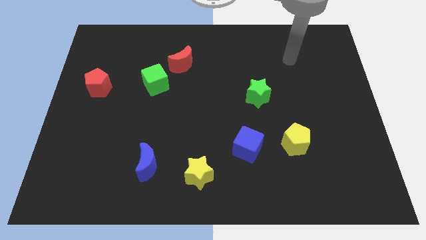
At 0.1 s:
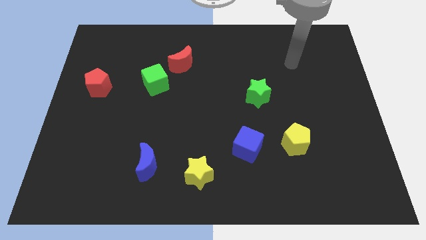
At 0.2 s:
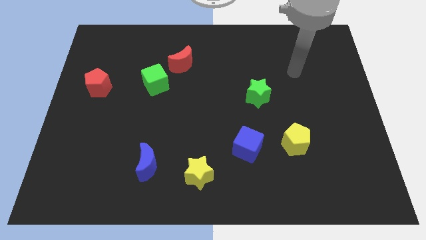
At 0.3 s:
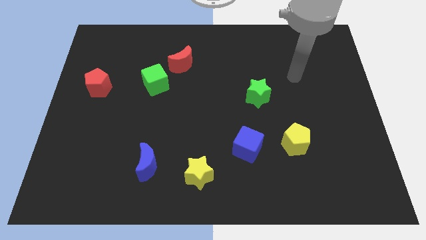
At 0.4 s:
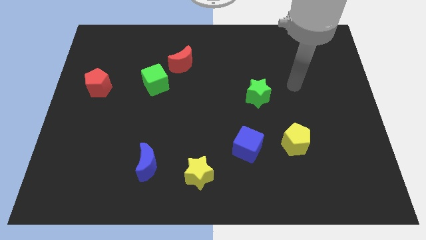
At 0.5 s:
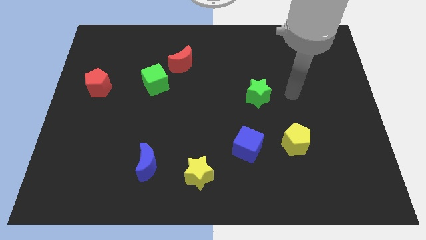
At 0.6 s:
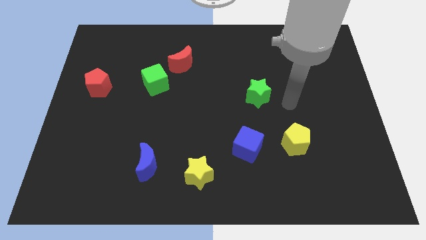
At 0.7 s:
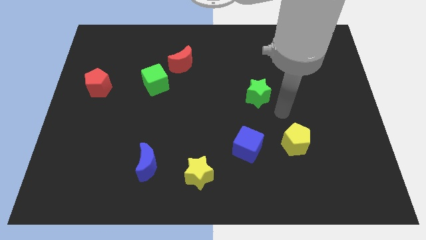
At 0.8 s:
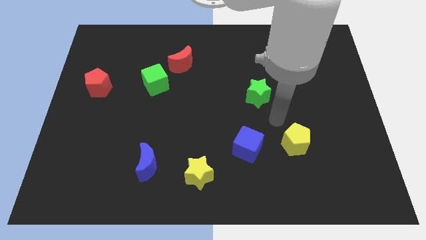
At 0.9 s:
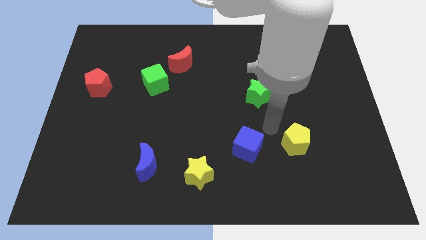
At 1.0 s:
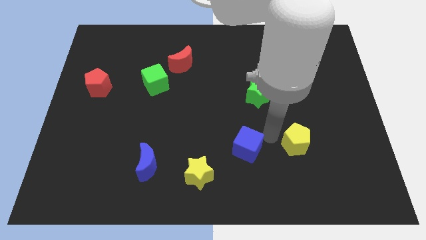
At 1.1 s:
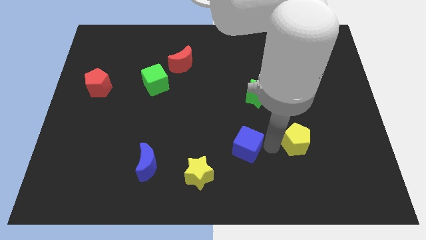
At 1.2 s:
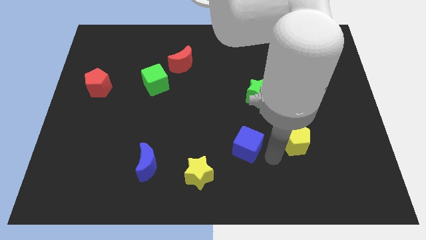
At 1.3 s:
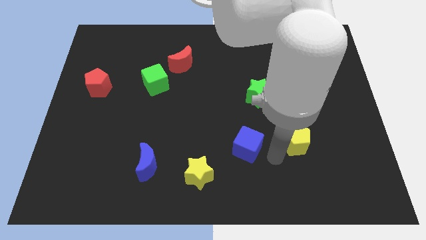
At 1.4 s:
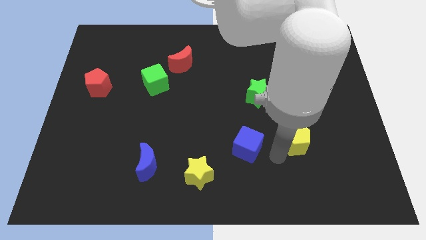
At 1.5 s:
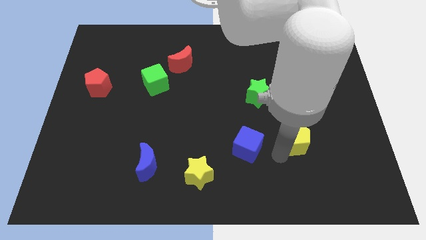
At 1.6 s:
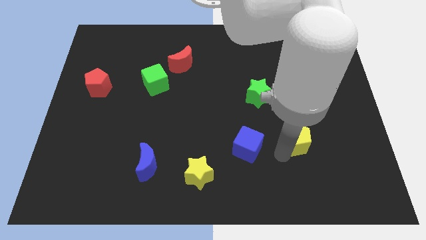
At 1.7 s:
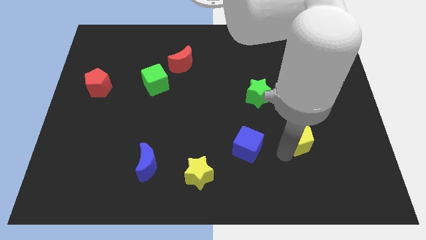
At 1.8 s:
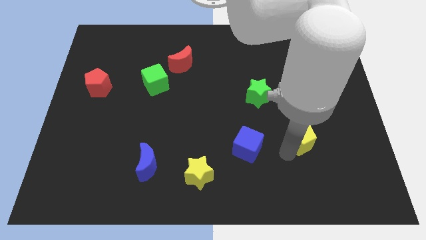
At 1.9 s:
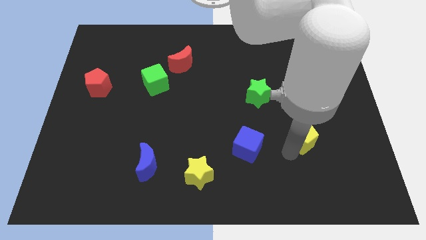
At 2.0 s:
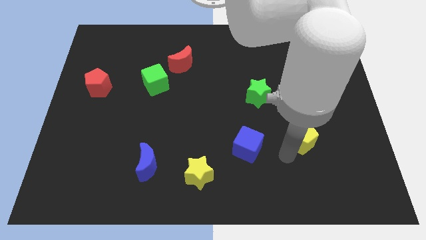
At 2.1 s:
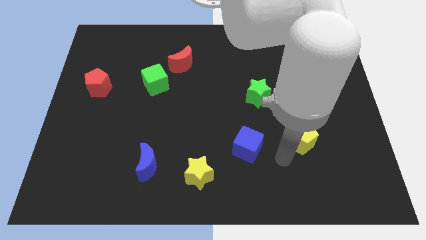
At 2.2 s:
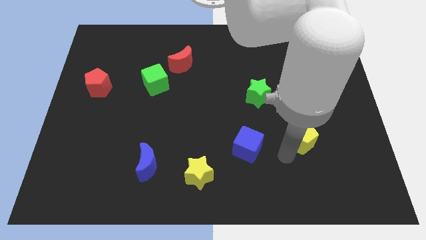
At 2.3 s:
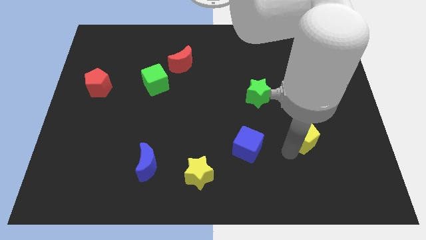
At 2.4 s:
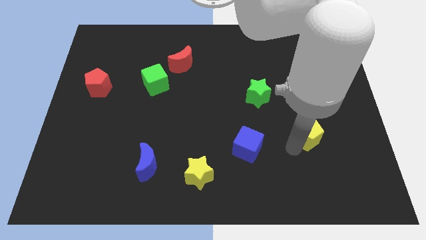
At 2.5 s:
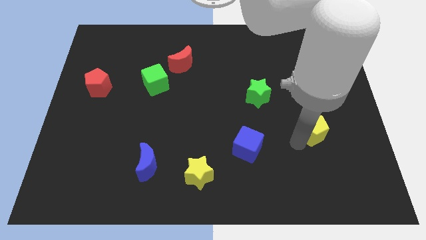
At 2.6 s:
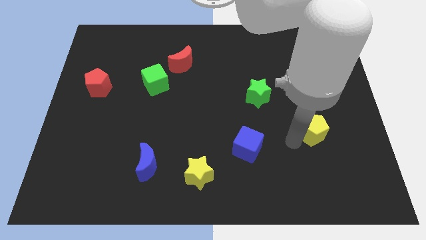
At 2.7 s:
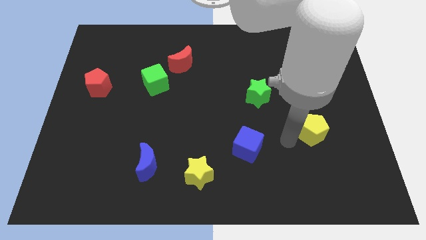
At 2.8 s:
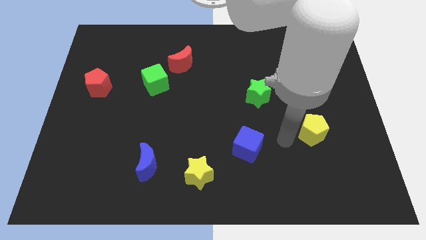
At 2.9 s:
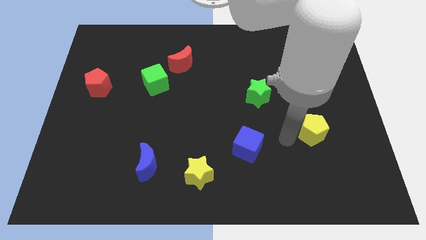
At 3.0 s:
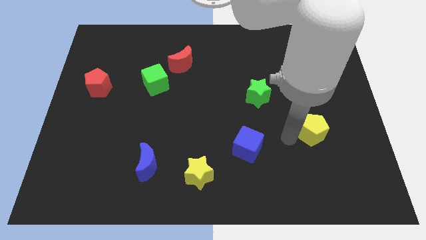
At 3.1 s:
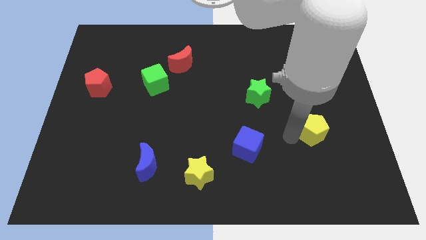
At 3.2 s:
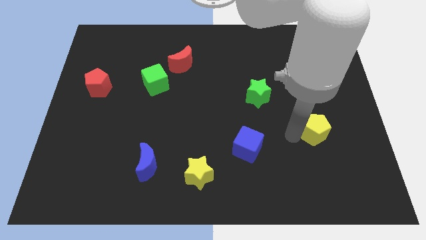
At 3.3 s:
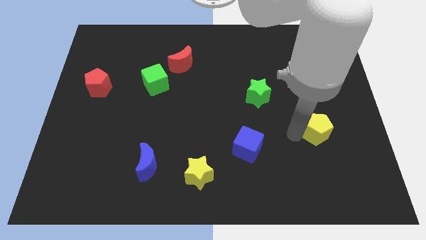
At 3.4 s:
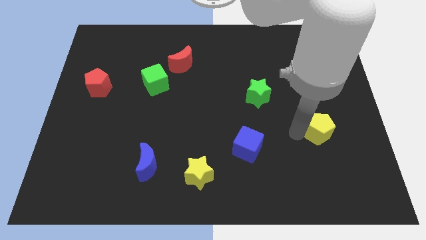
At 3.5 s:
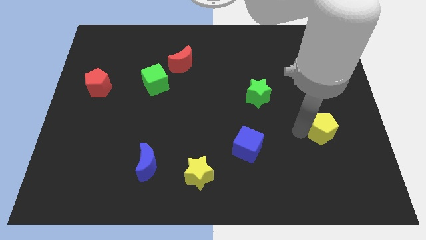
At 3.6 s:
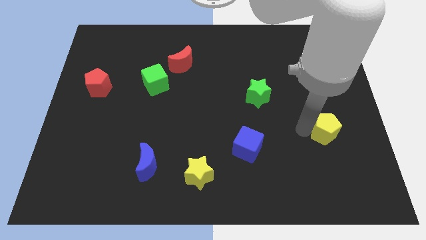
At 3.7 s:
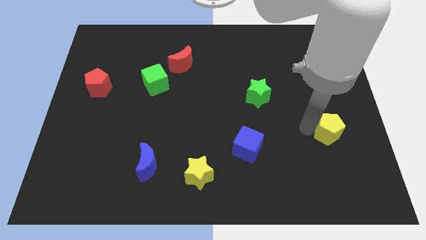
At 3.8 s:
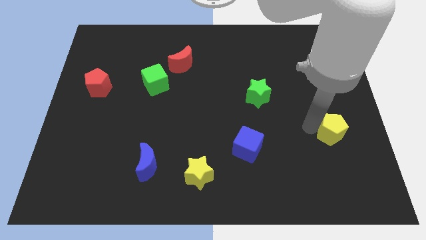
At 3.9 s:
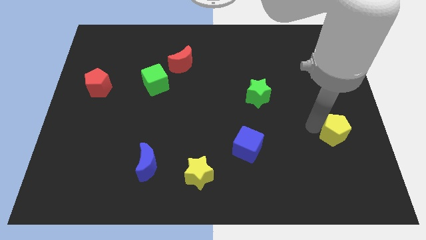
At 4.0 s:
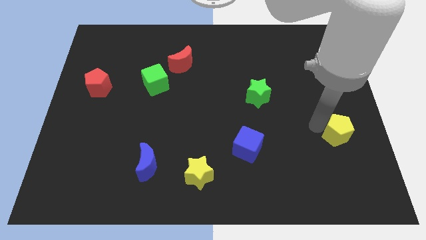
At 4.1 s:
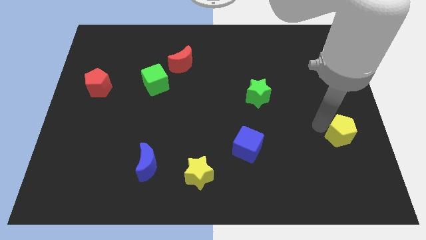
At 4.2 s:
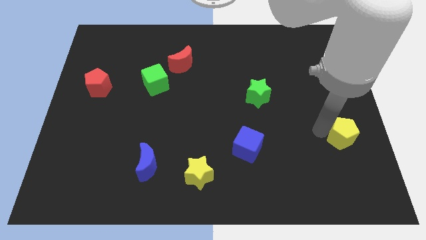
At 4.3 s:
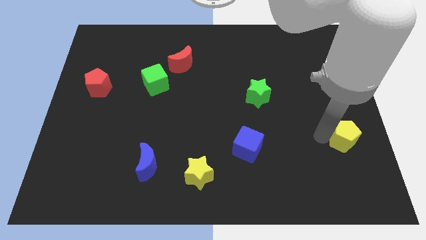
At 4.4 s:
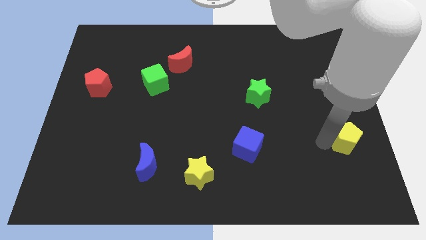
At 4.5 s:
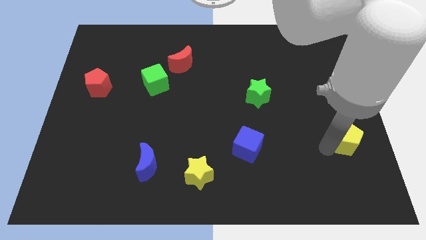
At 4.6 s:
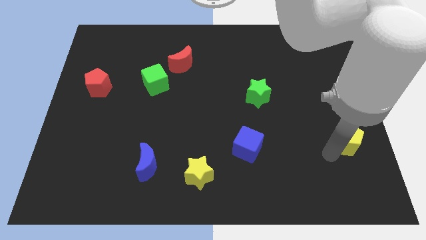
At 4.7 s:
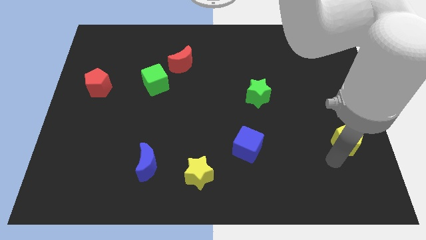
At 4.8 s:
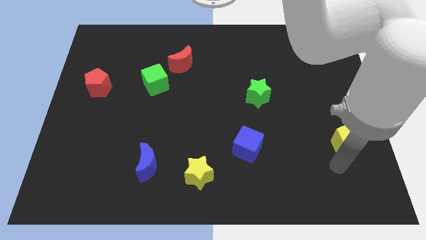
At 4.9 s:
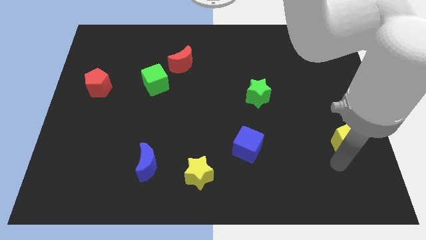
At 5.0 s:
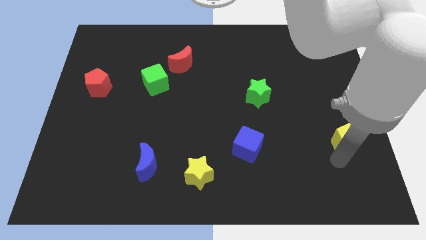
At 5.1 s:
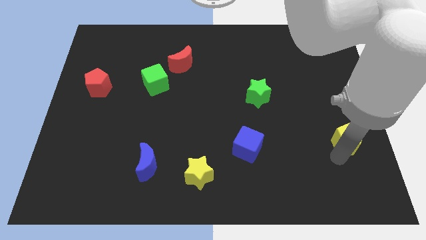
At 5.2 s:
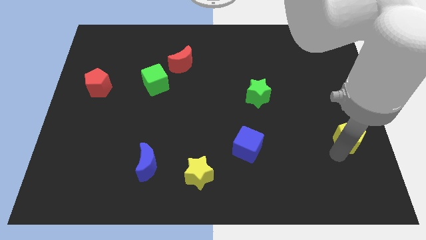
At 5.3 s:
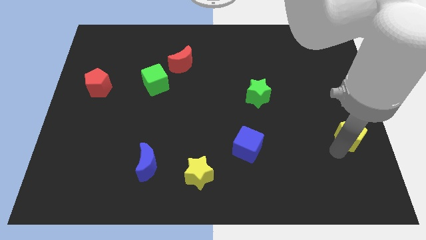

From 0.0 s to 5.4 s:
slide the yellow pentagon to the right side of the board

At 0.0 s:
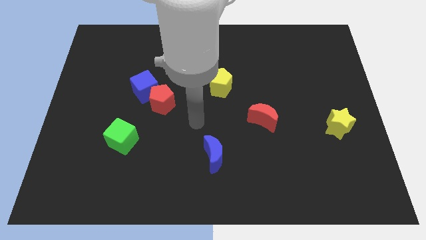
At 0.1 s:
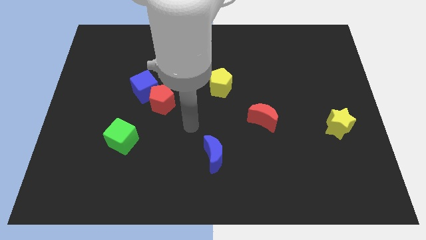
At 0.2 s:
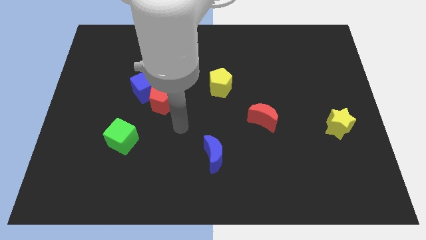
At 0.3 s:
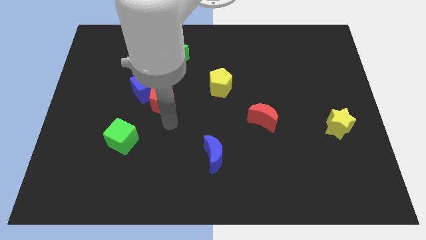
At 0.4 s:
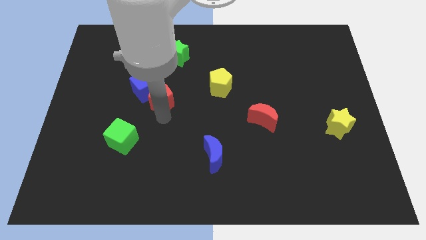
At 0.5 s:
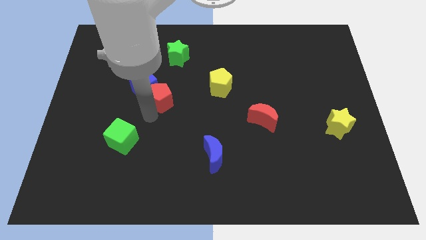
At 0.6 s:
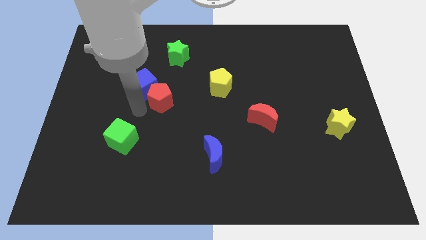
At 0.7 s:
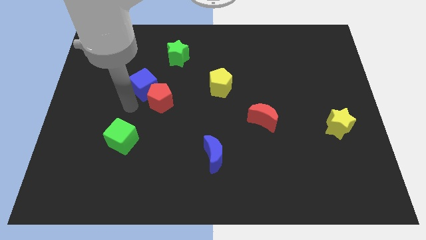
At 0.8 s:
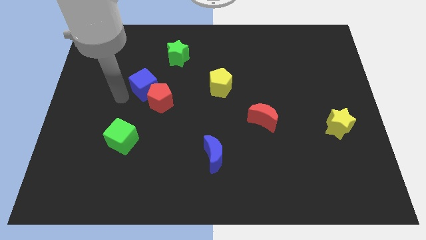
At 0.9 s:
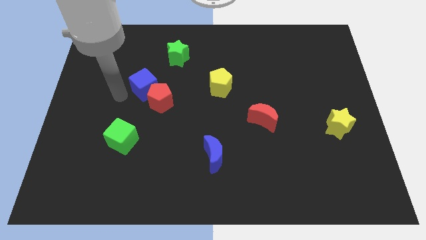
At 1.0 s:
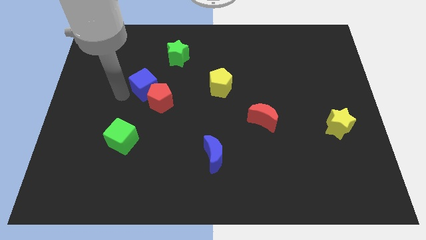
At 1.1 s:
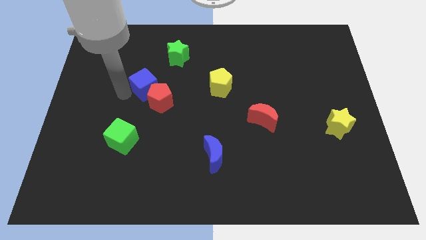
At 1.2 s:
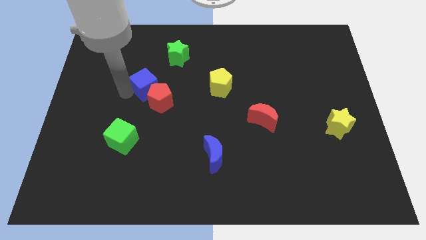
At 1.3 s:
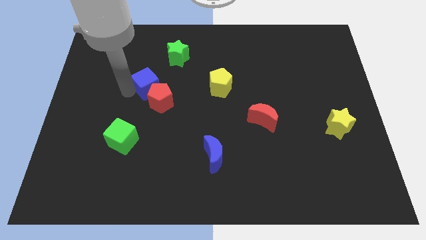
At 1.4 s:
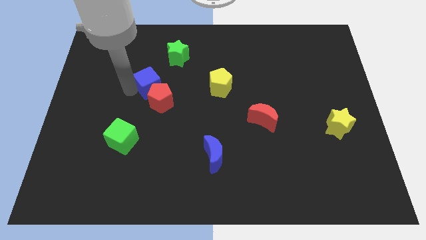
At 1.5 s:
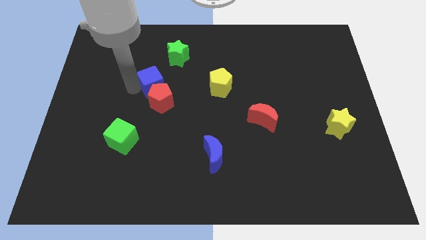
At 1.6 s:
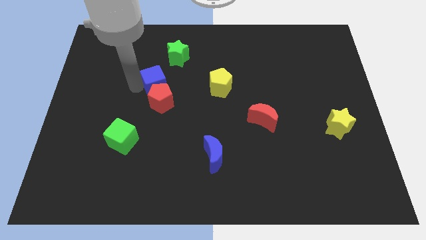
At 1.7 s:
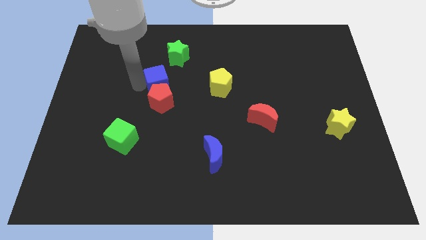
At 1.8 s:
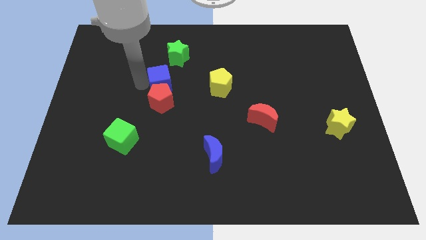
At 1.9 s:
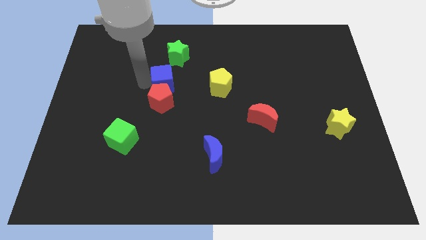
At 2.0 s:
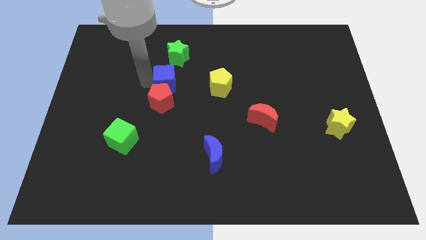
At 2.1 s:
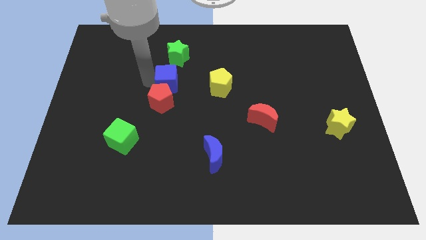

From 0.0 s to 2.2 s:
move the blue cube to the center
